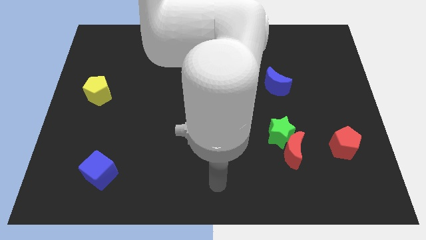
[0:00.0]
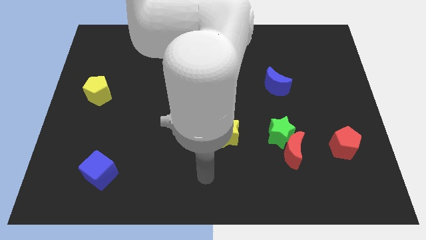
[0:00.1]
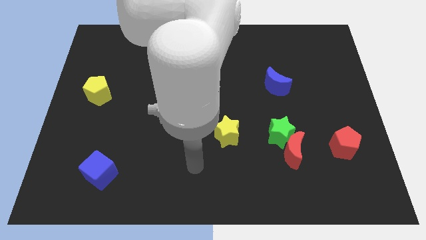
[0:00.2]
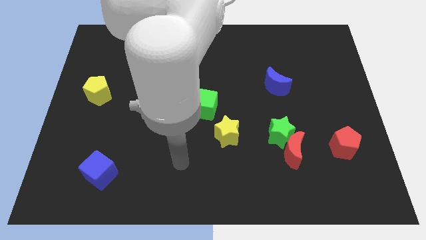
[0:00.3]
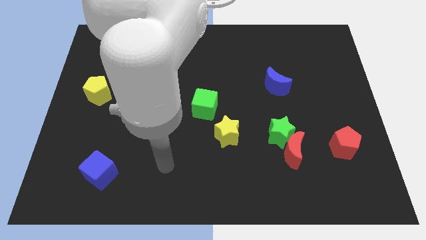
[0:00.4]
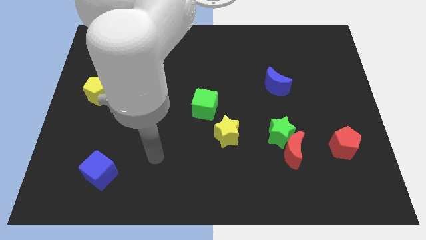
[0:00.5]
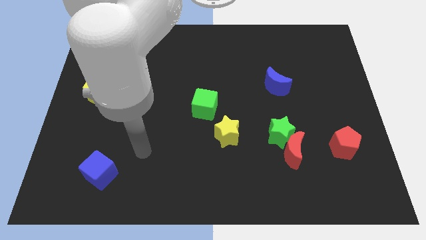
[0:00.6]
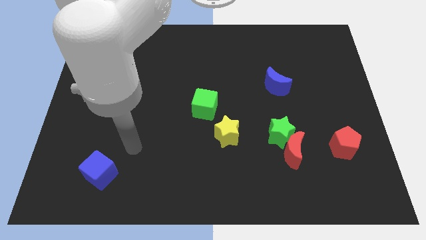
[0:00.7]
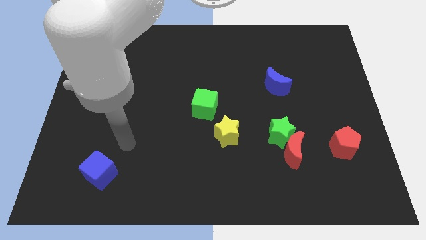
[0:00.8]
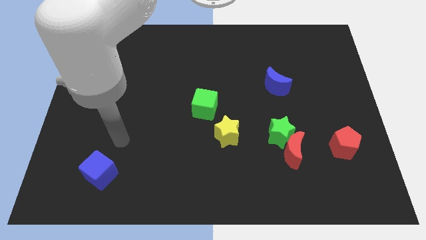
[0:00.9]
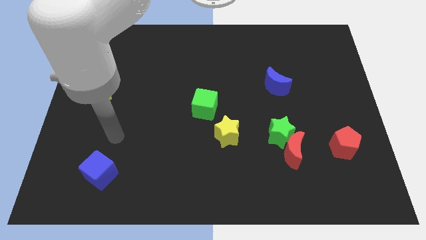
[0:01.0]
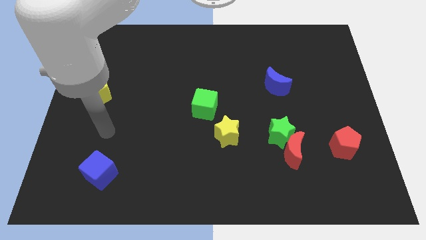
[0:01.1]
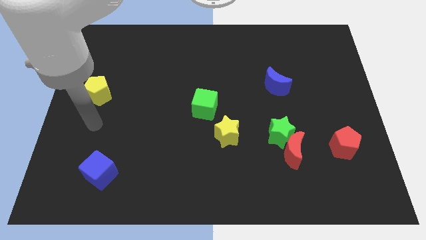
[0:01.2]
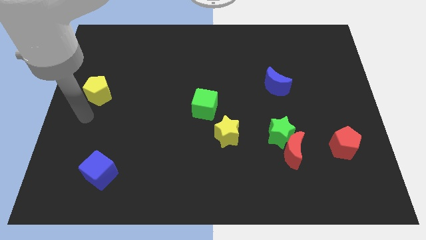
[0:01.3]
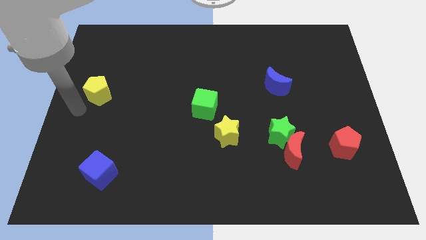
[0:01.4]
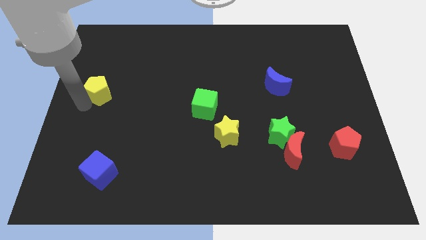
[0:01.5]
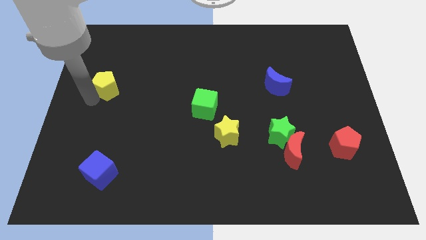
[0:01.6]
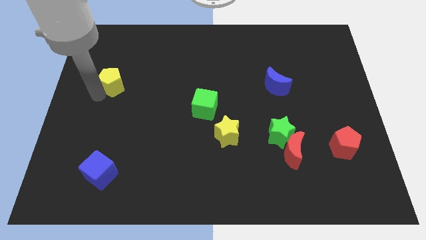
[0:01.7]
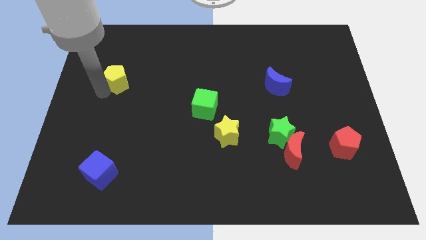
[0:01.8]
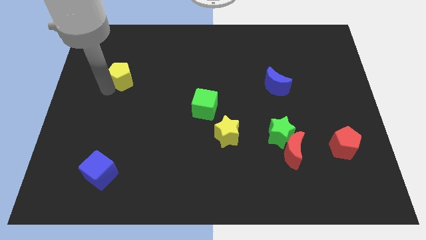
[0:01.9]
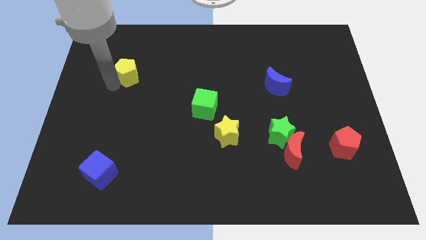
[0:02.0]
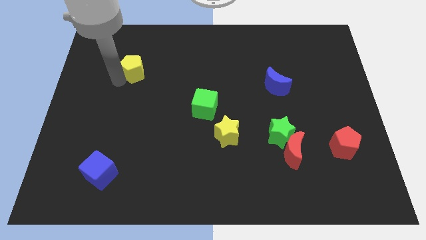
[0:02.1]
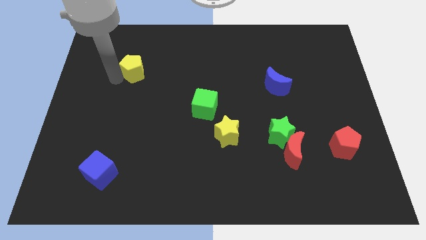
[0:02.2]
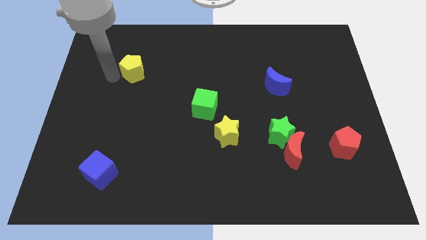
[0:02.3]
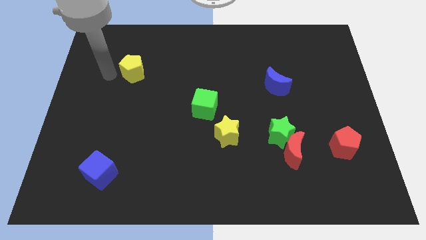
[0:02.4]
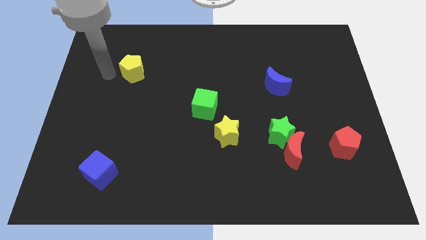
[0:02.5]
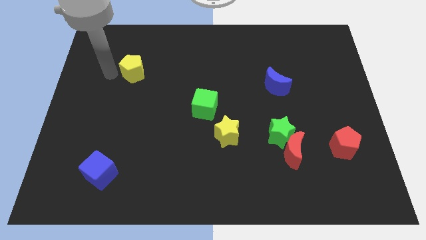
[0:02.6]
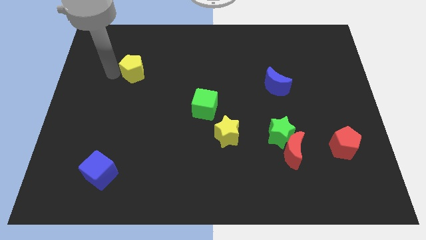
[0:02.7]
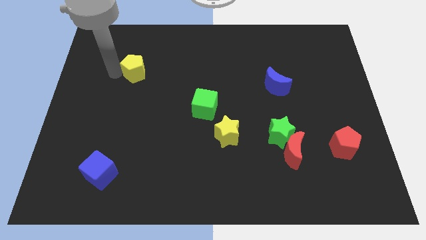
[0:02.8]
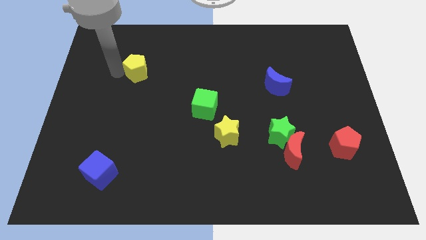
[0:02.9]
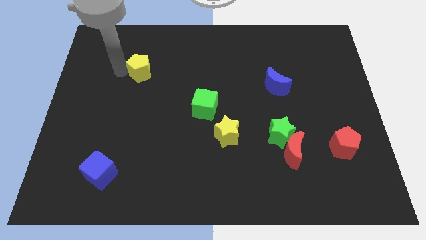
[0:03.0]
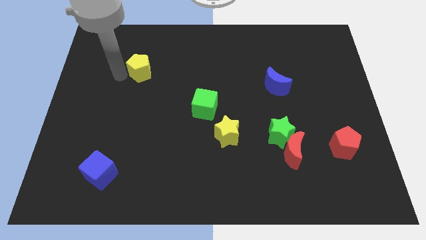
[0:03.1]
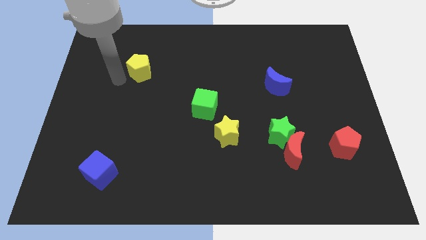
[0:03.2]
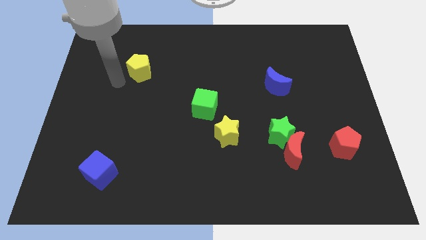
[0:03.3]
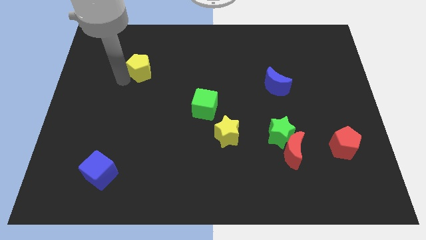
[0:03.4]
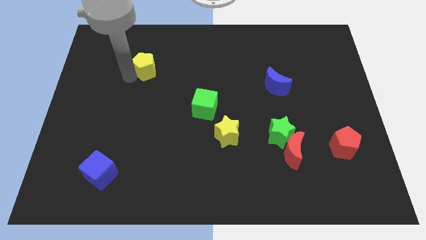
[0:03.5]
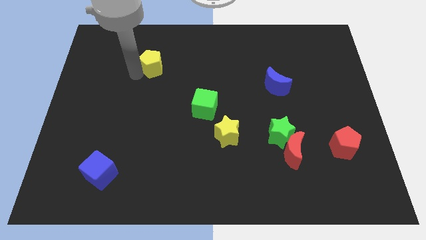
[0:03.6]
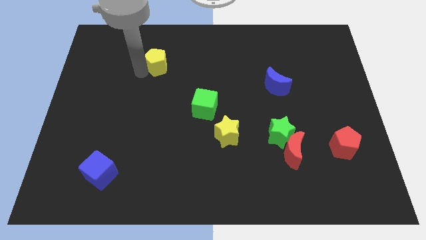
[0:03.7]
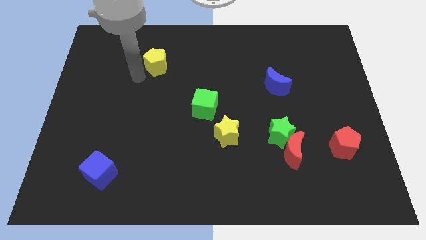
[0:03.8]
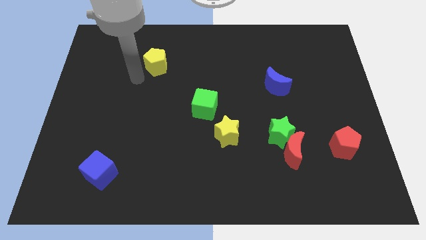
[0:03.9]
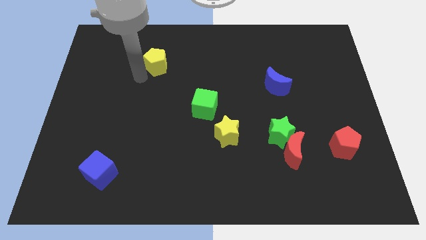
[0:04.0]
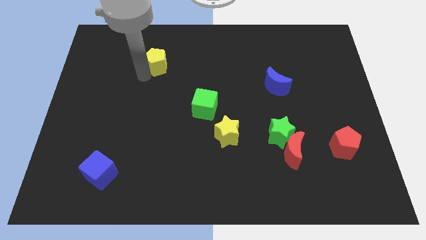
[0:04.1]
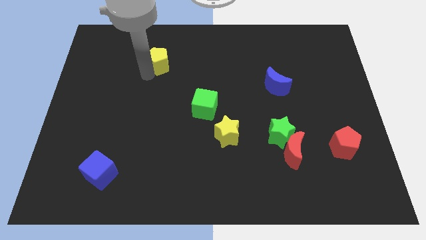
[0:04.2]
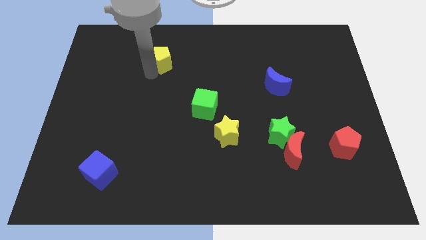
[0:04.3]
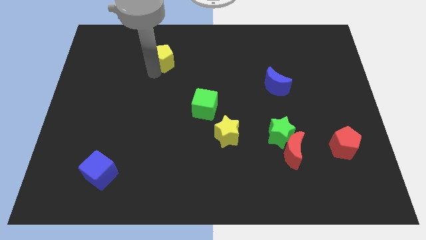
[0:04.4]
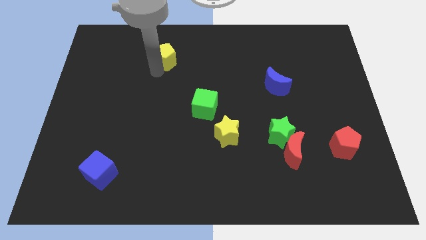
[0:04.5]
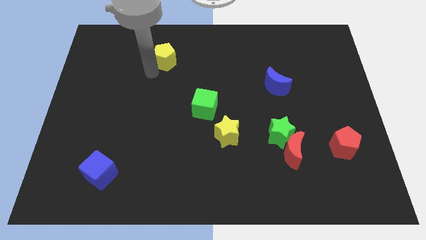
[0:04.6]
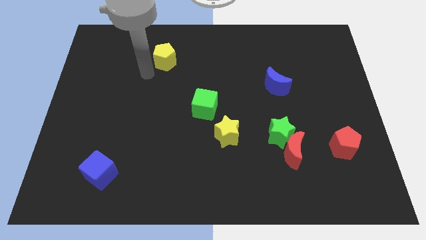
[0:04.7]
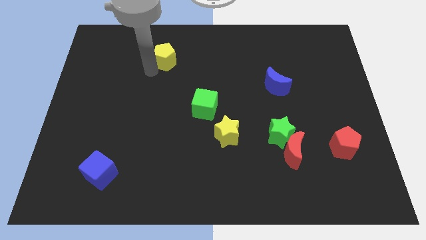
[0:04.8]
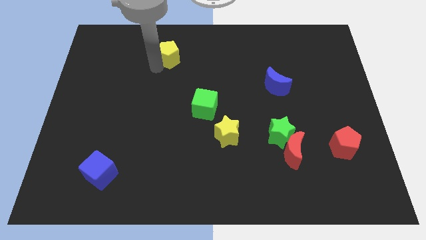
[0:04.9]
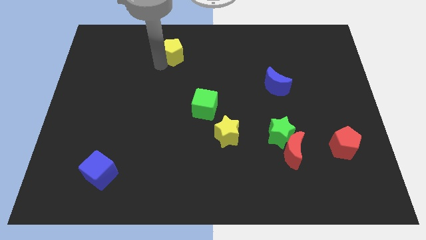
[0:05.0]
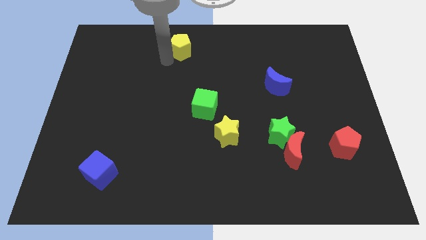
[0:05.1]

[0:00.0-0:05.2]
push the yellow pentagon to the top side

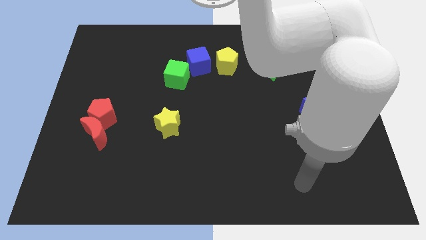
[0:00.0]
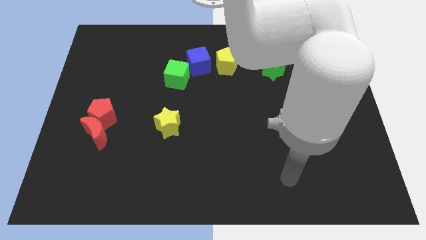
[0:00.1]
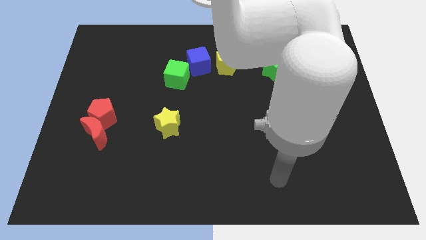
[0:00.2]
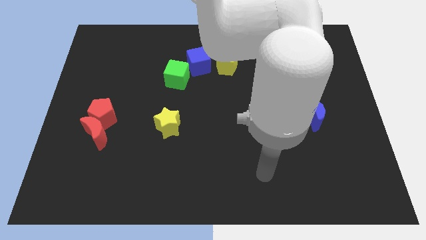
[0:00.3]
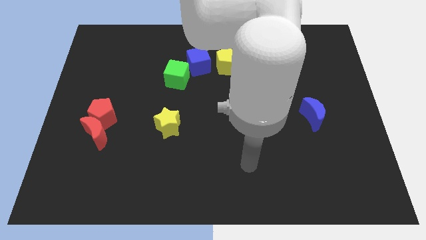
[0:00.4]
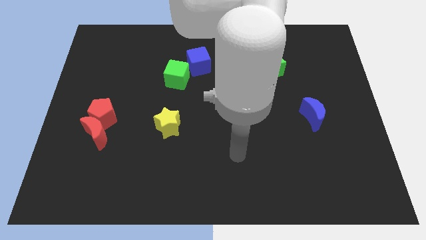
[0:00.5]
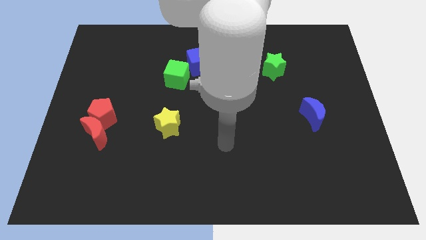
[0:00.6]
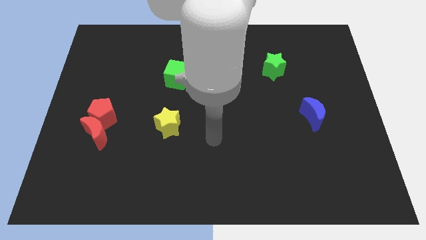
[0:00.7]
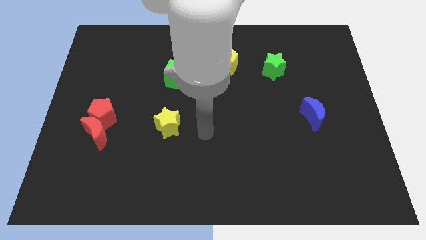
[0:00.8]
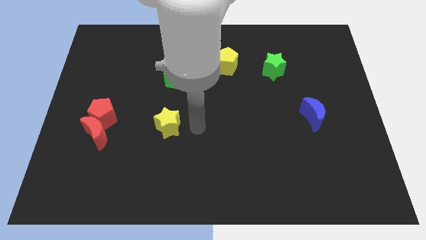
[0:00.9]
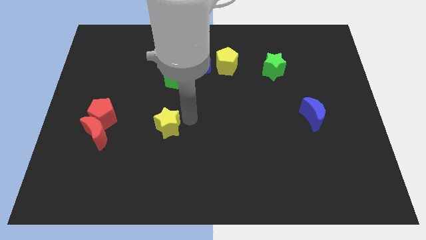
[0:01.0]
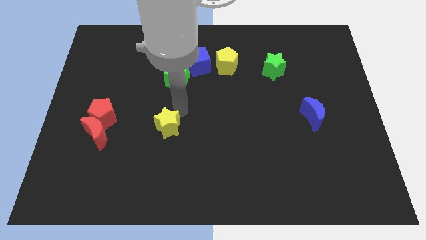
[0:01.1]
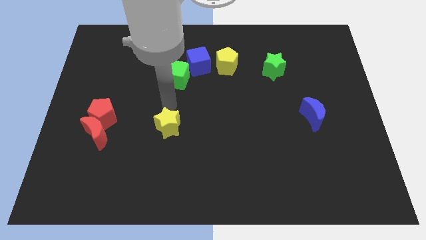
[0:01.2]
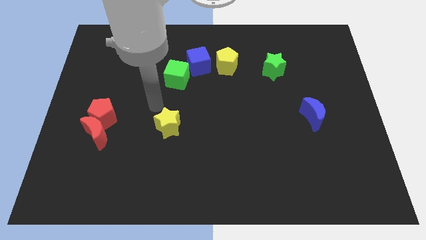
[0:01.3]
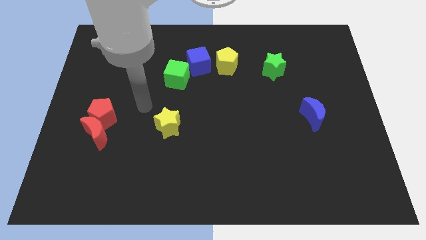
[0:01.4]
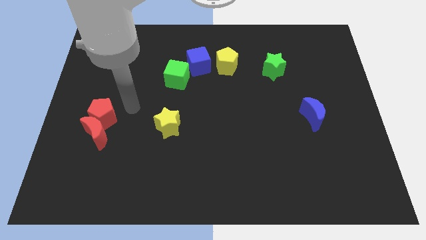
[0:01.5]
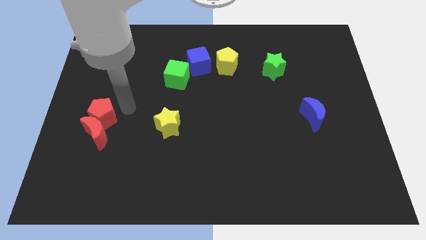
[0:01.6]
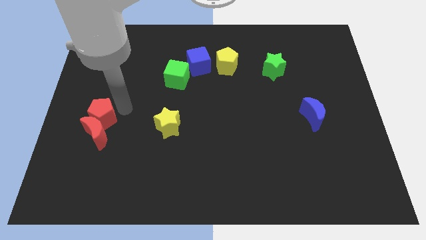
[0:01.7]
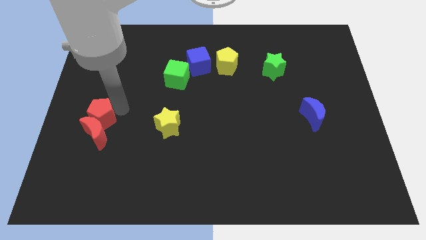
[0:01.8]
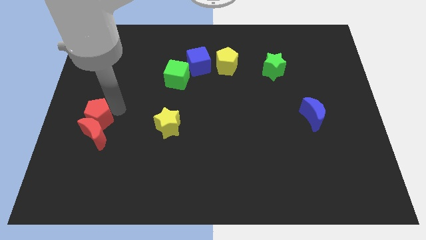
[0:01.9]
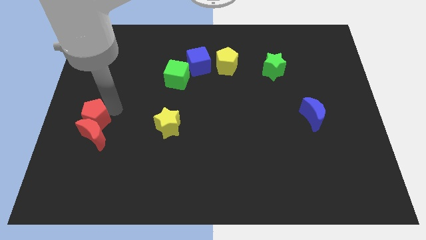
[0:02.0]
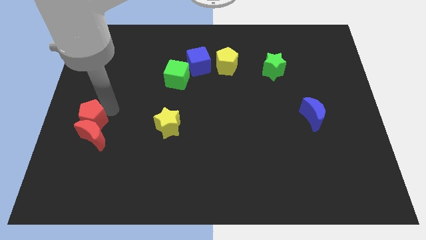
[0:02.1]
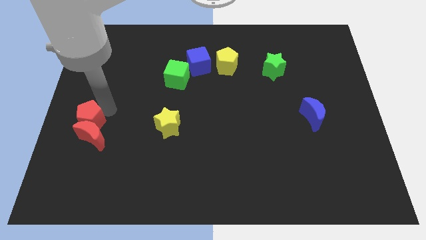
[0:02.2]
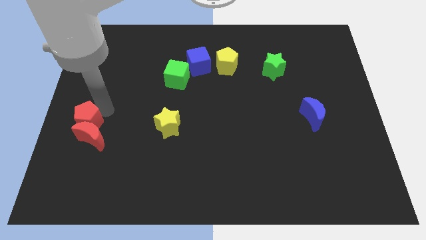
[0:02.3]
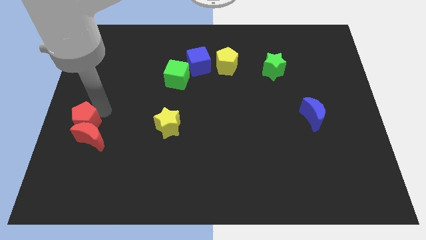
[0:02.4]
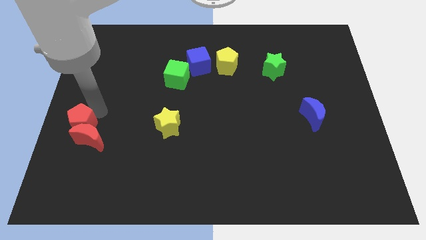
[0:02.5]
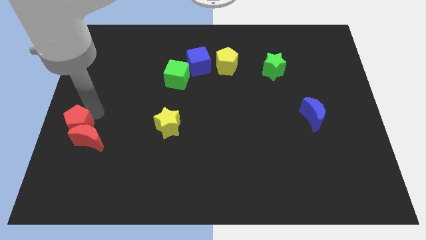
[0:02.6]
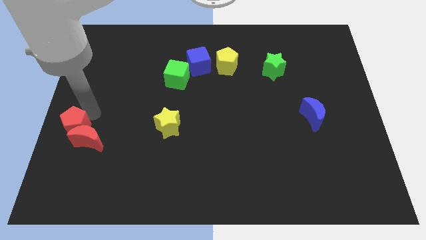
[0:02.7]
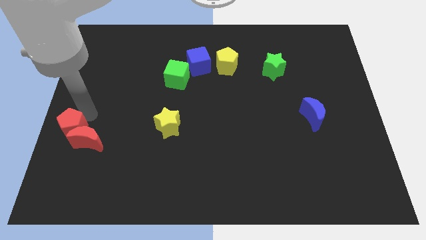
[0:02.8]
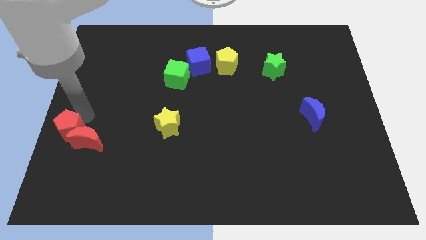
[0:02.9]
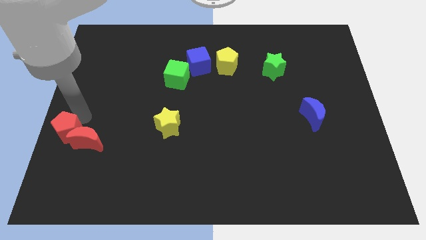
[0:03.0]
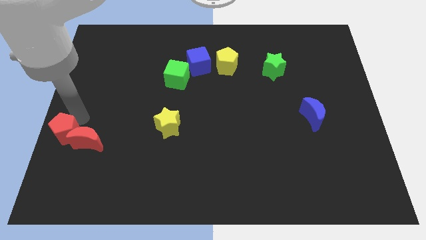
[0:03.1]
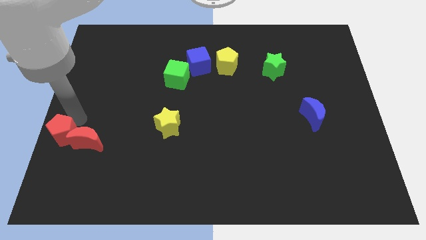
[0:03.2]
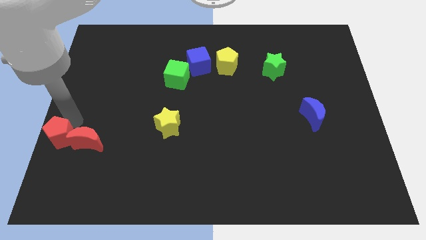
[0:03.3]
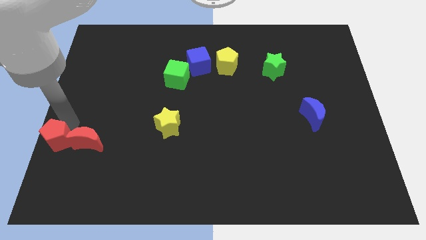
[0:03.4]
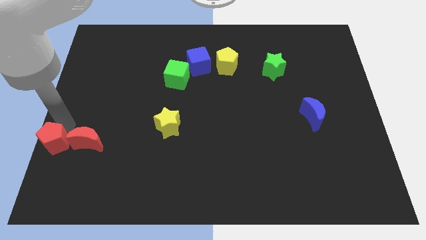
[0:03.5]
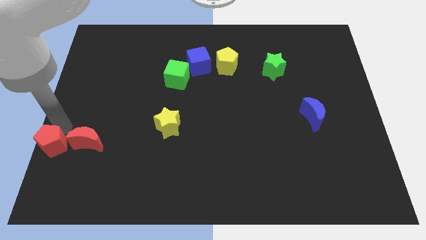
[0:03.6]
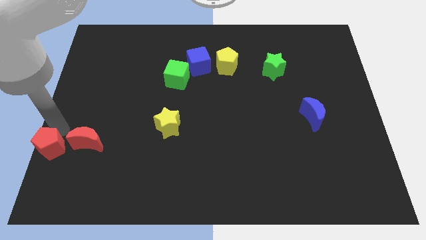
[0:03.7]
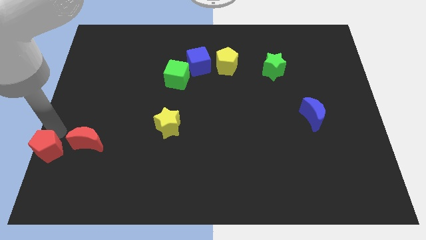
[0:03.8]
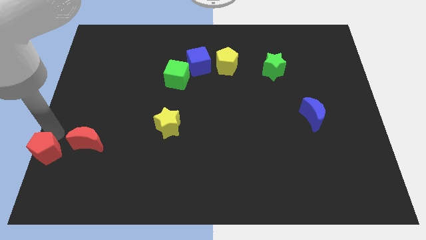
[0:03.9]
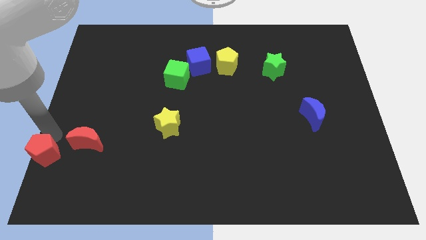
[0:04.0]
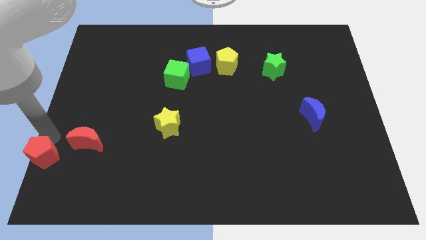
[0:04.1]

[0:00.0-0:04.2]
move the red pentagon to the bottom left corner
